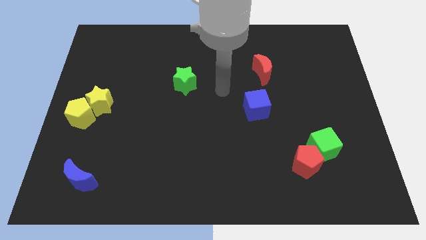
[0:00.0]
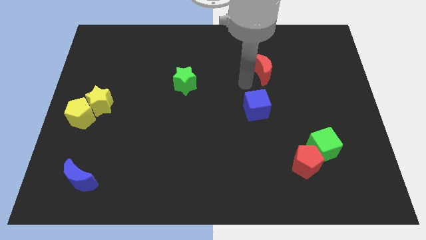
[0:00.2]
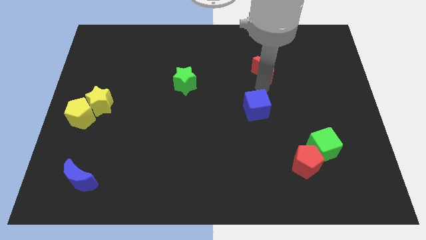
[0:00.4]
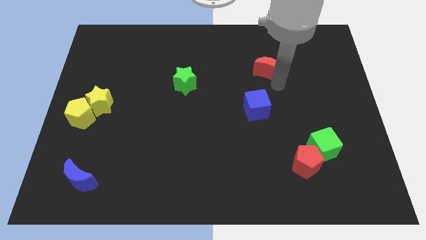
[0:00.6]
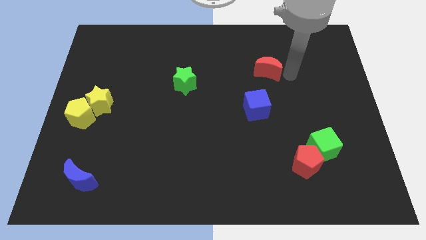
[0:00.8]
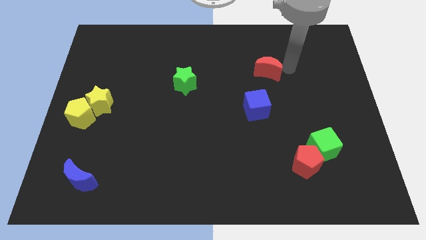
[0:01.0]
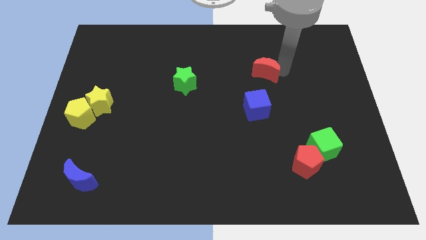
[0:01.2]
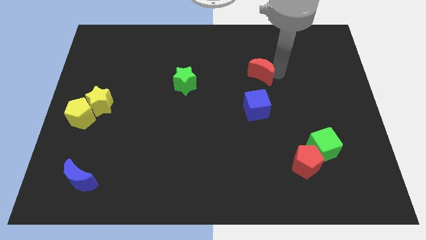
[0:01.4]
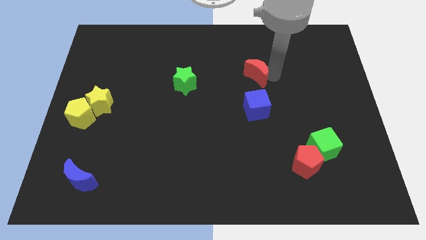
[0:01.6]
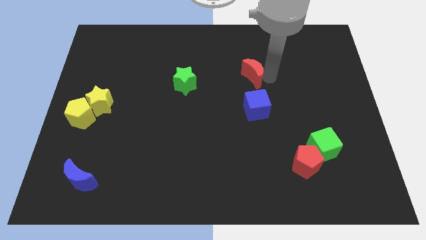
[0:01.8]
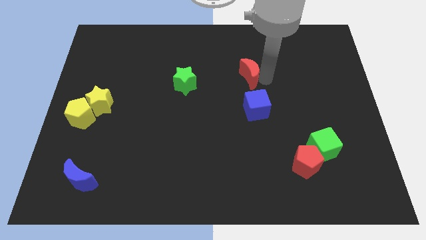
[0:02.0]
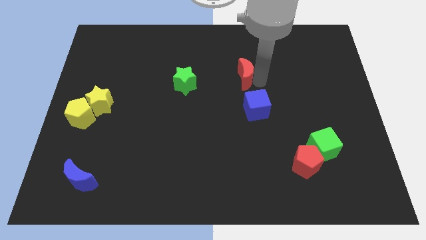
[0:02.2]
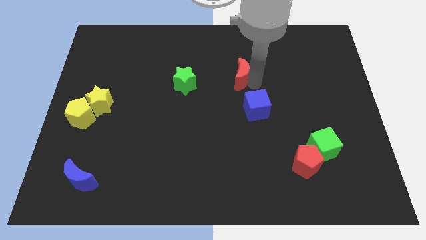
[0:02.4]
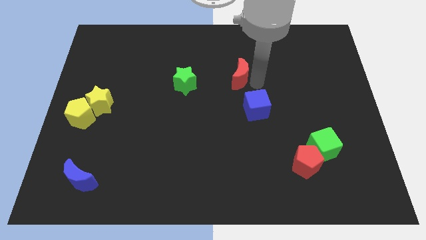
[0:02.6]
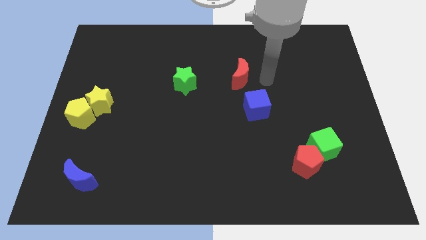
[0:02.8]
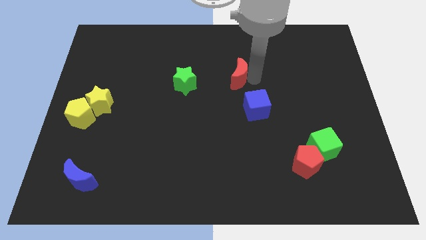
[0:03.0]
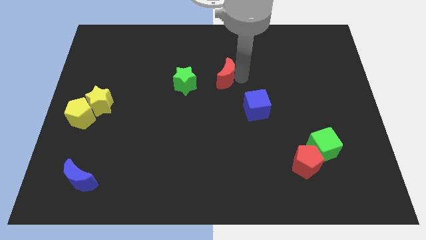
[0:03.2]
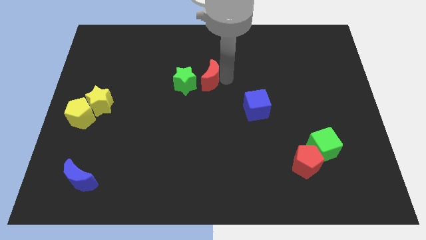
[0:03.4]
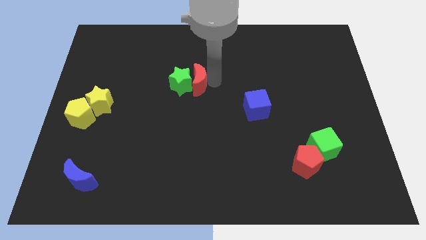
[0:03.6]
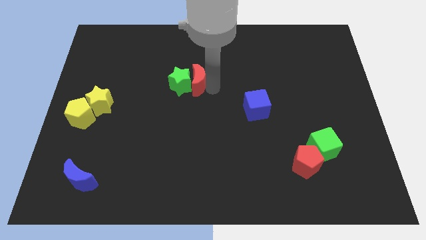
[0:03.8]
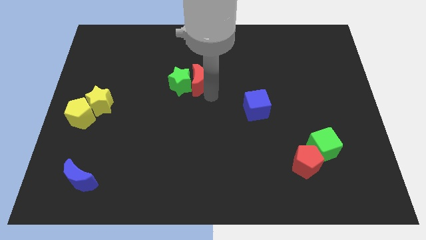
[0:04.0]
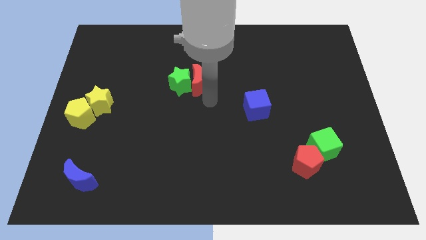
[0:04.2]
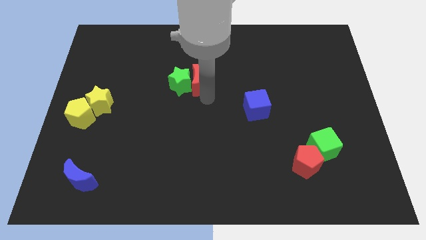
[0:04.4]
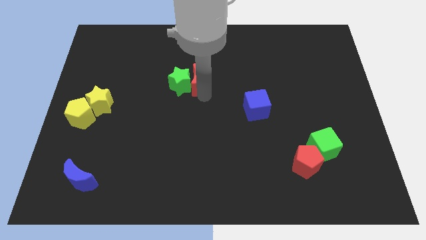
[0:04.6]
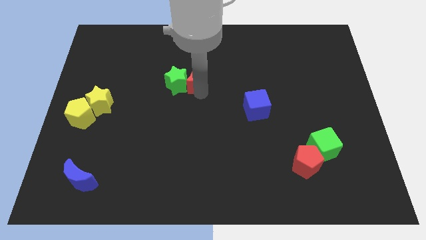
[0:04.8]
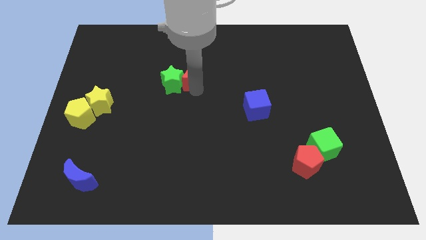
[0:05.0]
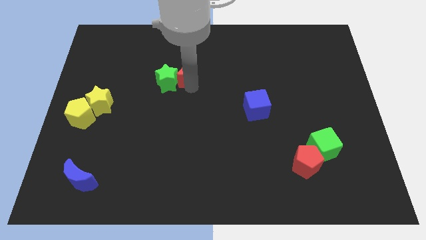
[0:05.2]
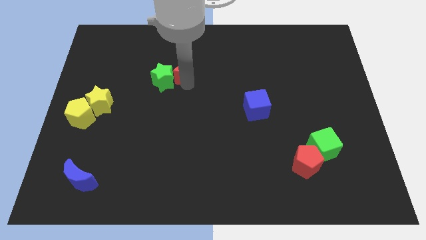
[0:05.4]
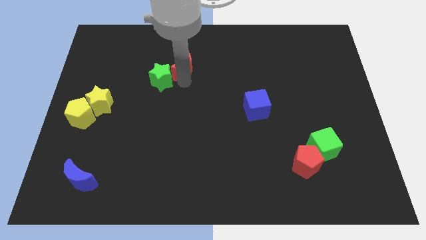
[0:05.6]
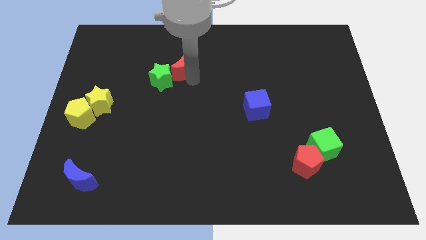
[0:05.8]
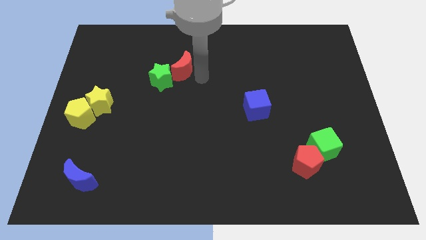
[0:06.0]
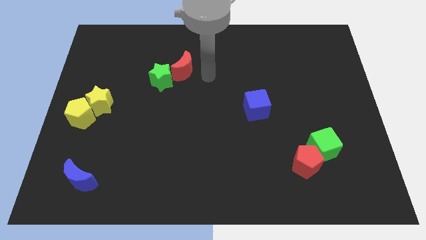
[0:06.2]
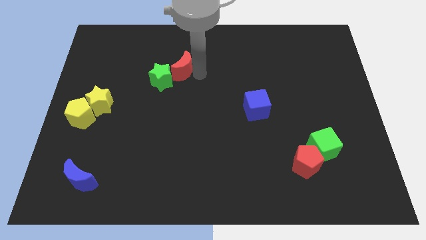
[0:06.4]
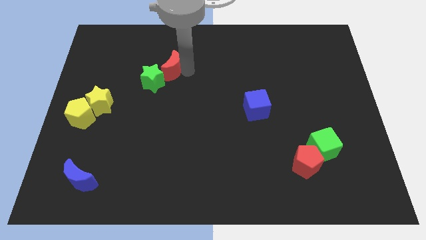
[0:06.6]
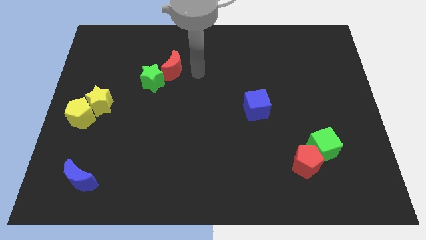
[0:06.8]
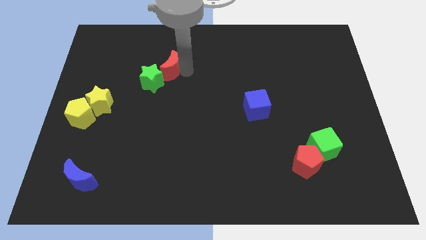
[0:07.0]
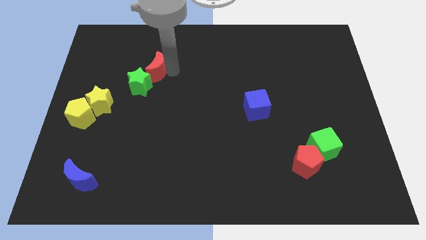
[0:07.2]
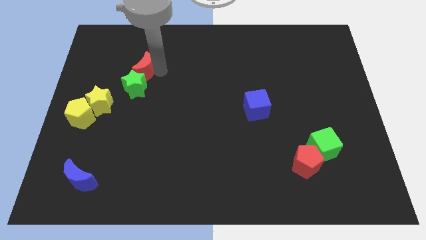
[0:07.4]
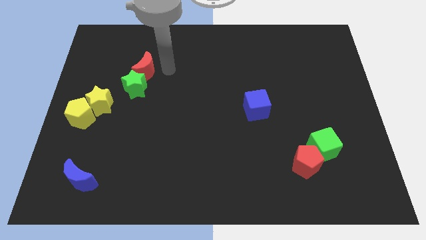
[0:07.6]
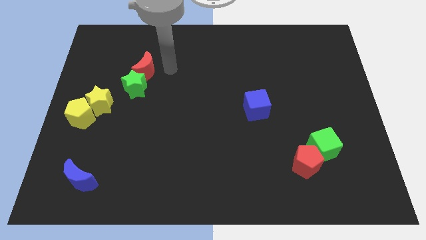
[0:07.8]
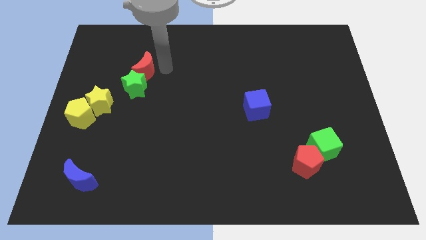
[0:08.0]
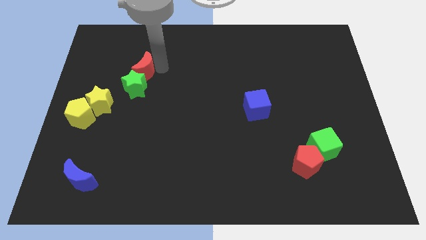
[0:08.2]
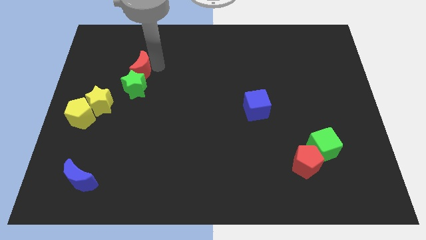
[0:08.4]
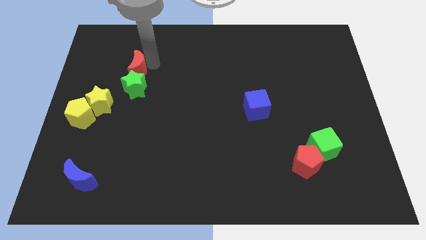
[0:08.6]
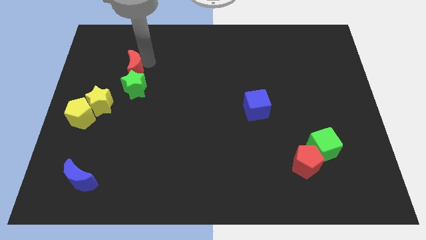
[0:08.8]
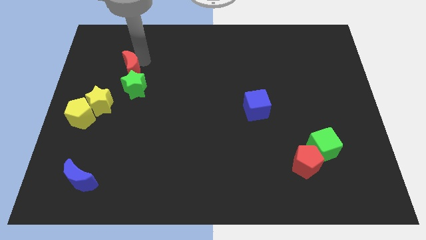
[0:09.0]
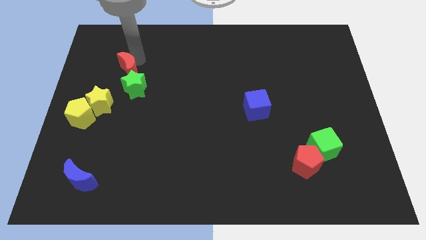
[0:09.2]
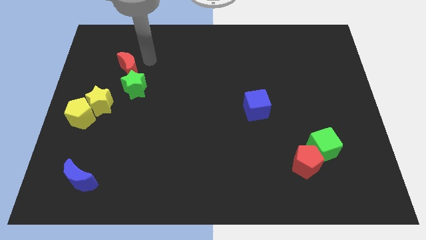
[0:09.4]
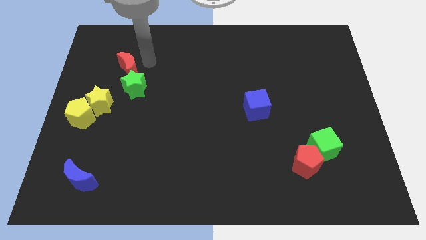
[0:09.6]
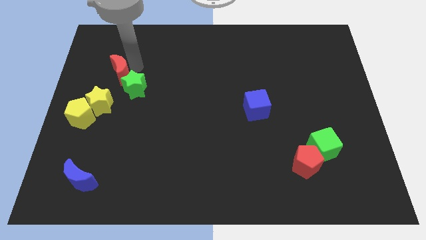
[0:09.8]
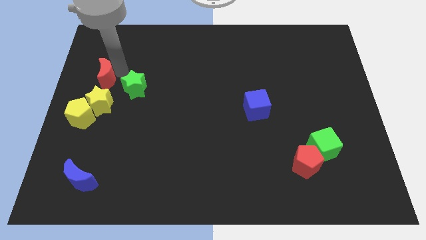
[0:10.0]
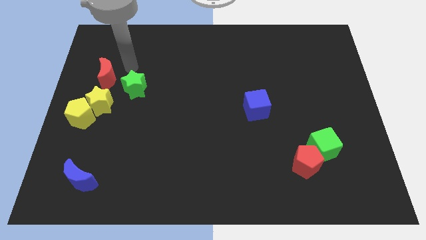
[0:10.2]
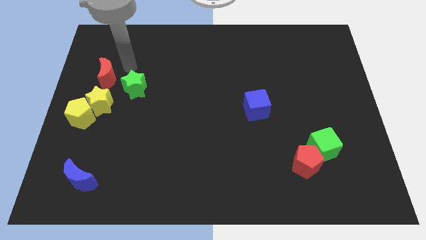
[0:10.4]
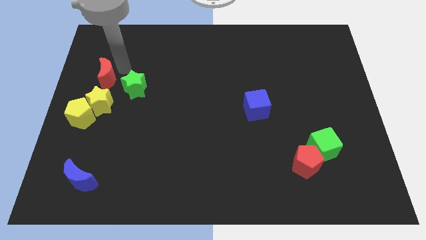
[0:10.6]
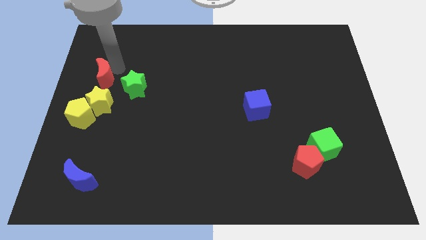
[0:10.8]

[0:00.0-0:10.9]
put the red moon to the left side of the board

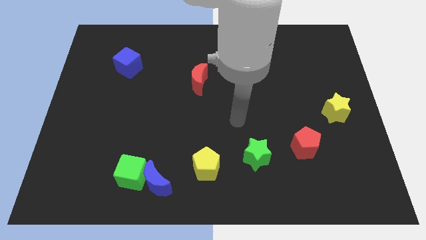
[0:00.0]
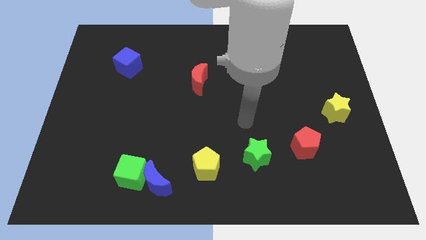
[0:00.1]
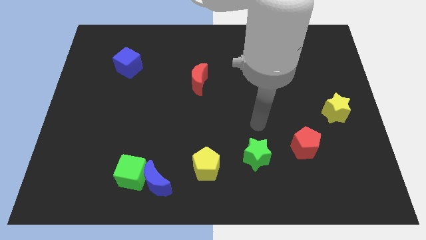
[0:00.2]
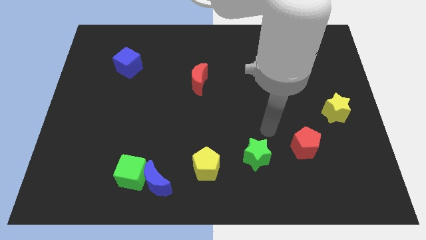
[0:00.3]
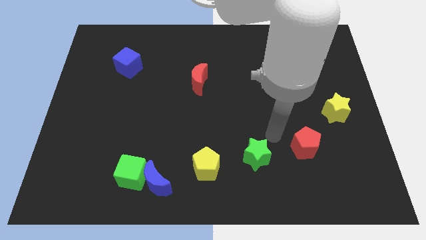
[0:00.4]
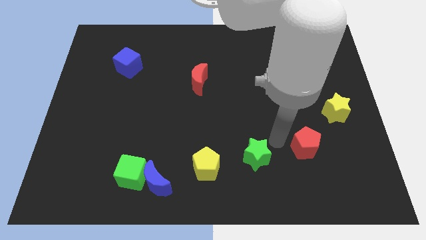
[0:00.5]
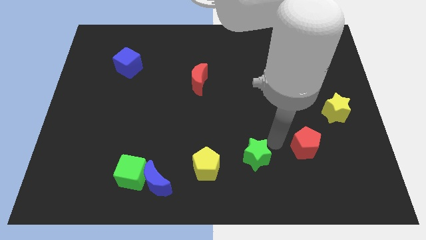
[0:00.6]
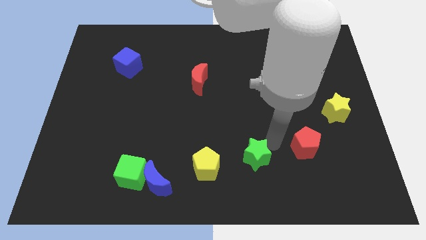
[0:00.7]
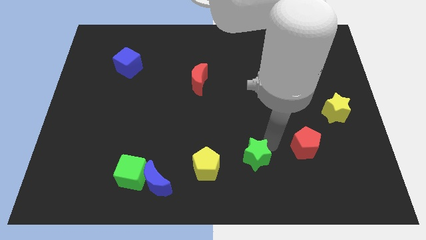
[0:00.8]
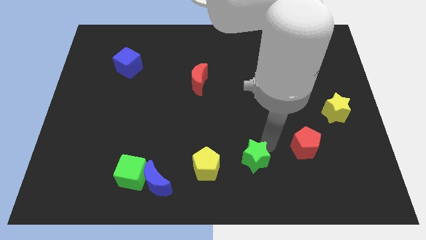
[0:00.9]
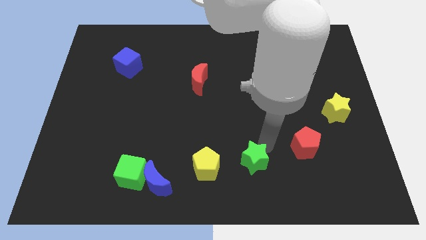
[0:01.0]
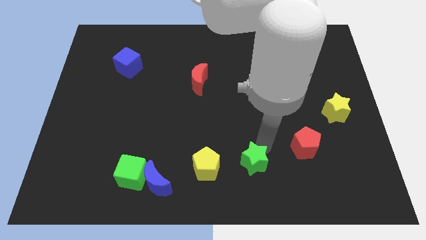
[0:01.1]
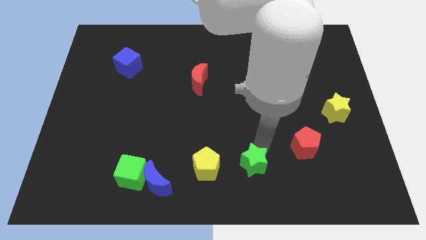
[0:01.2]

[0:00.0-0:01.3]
push the green star to the bottom

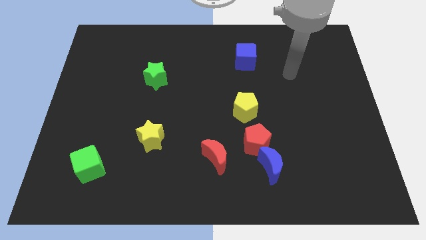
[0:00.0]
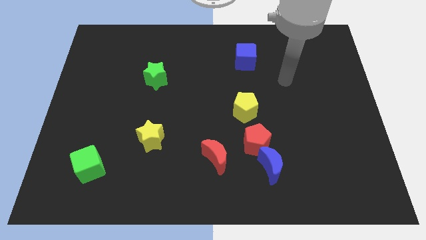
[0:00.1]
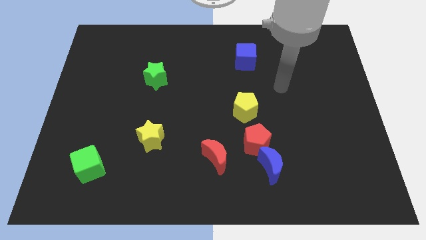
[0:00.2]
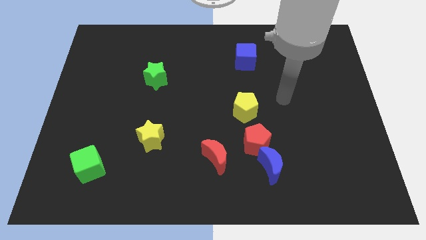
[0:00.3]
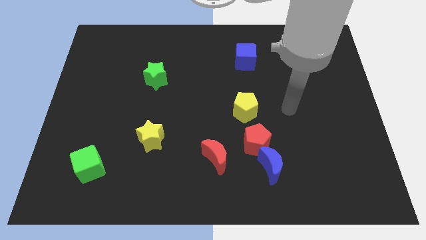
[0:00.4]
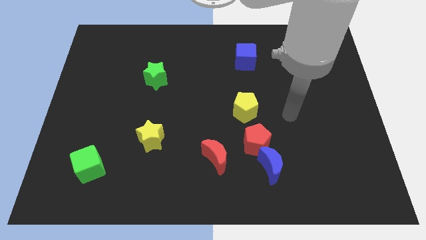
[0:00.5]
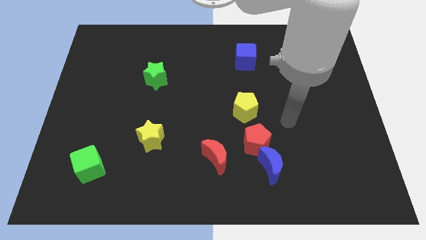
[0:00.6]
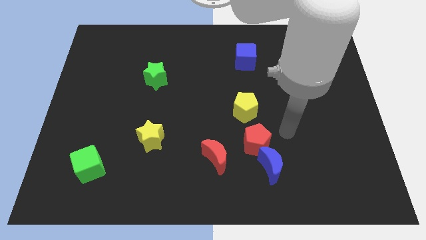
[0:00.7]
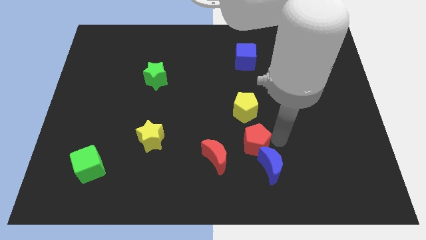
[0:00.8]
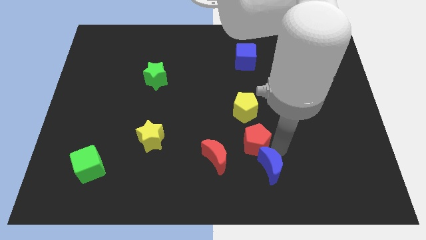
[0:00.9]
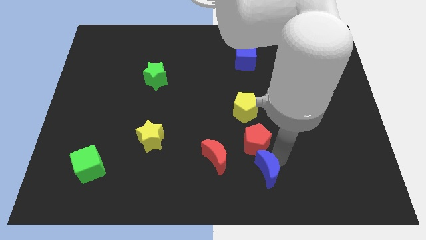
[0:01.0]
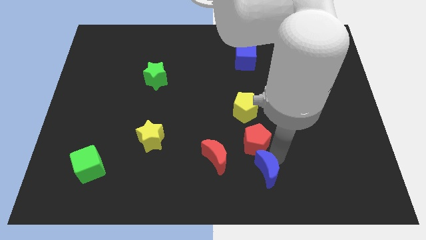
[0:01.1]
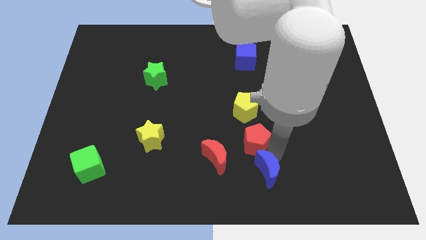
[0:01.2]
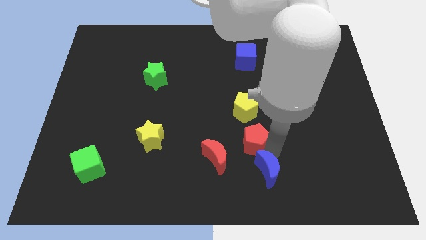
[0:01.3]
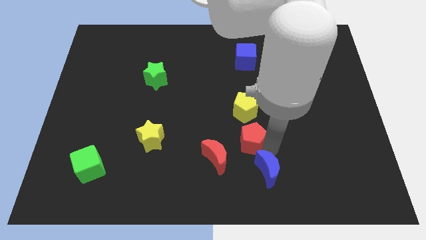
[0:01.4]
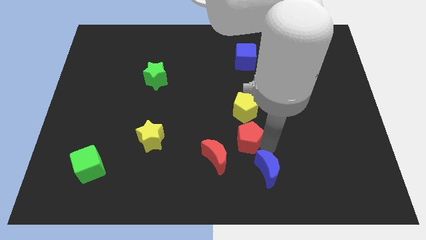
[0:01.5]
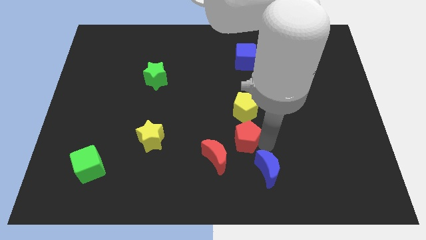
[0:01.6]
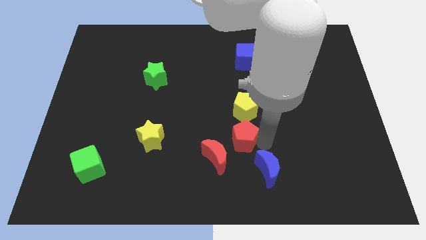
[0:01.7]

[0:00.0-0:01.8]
slide the red pentagon to the middle of the board
